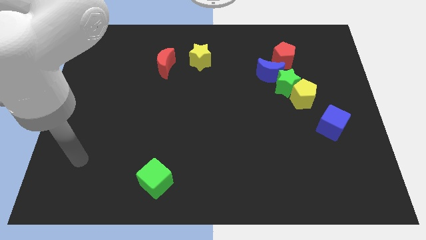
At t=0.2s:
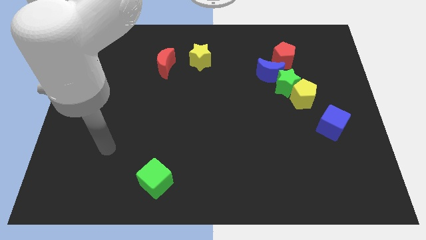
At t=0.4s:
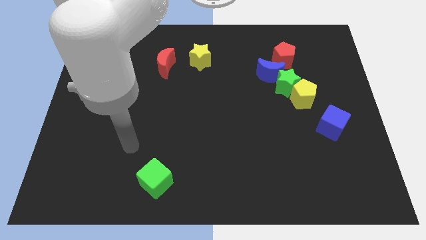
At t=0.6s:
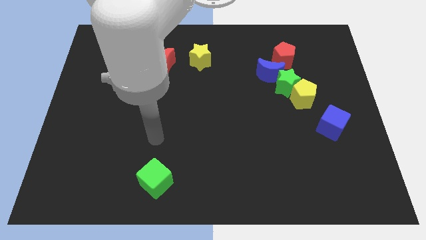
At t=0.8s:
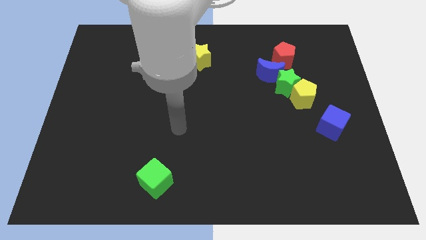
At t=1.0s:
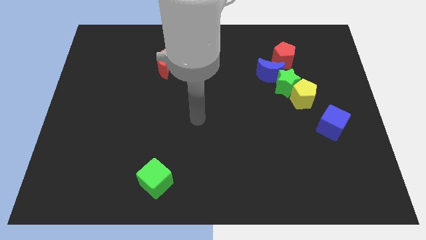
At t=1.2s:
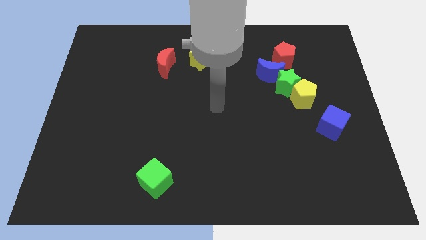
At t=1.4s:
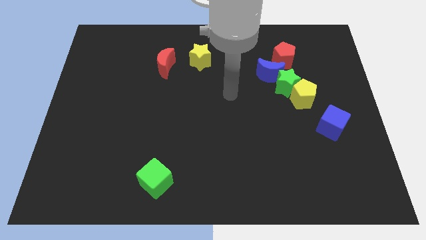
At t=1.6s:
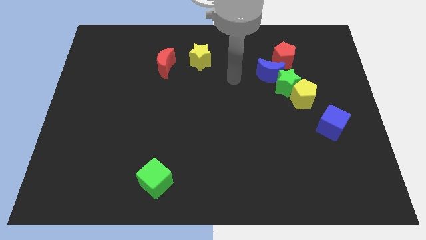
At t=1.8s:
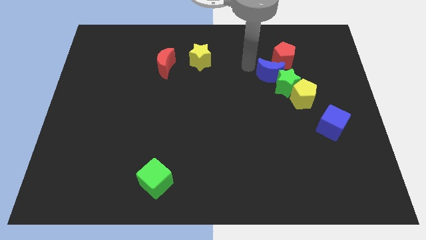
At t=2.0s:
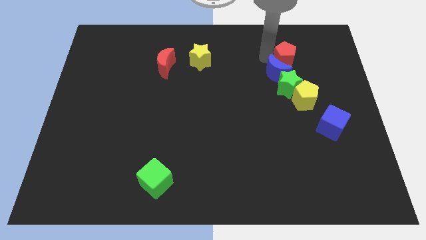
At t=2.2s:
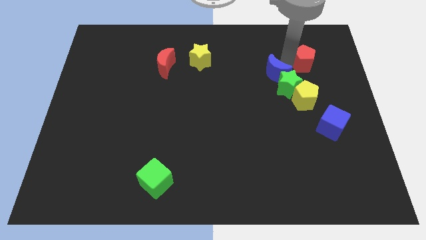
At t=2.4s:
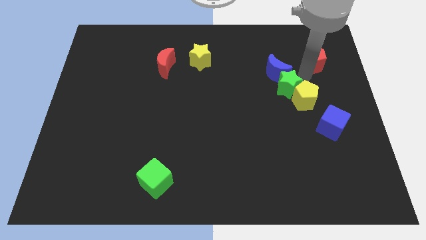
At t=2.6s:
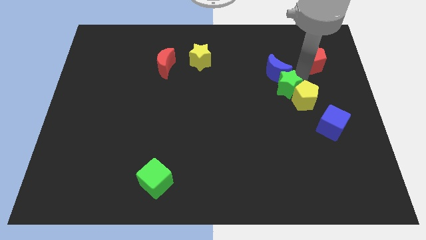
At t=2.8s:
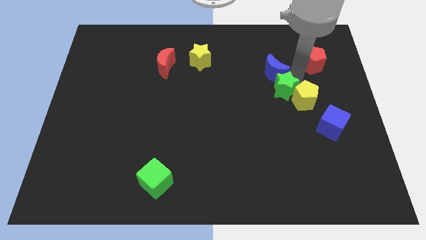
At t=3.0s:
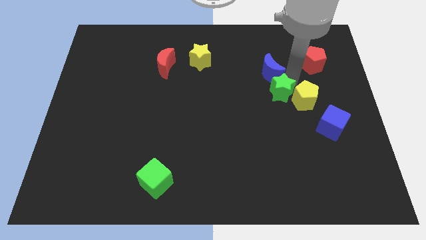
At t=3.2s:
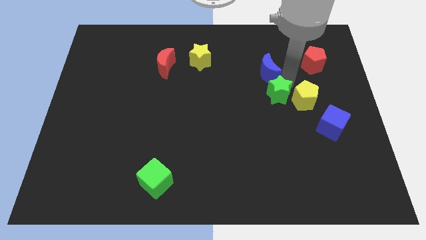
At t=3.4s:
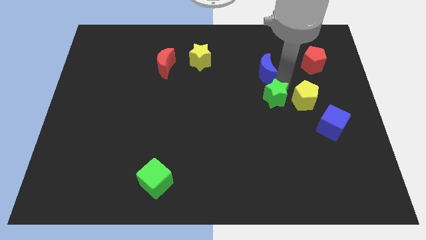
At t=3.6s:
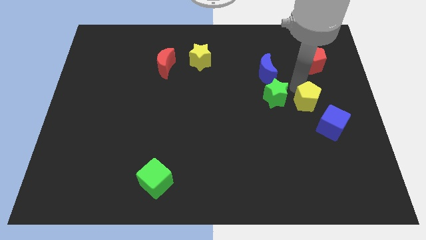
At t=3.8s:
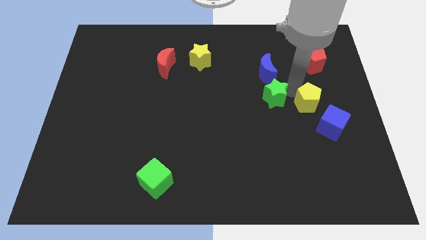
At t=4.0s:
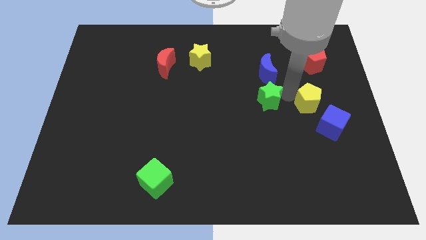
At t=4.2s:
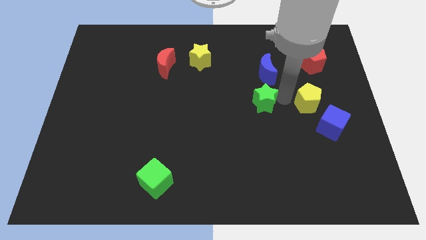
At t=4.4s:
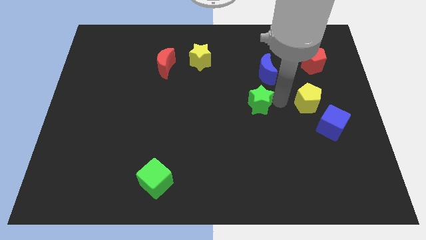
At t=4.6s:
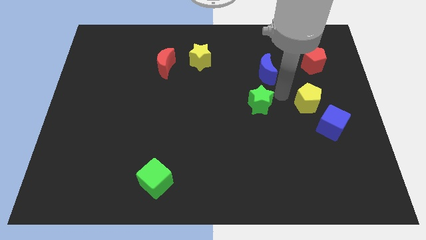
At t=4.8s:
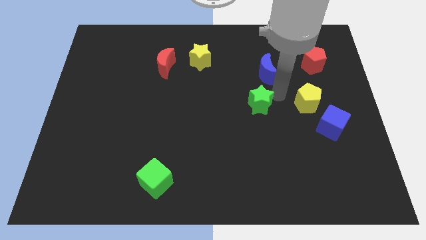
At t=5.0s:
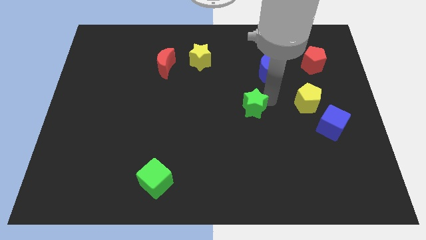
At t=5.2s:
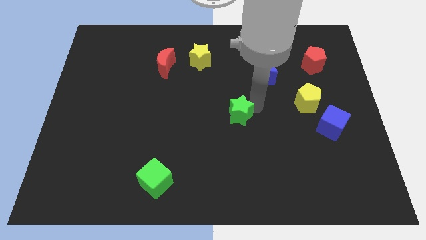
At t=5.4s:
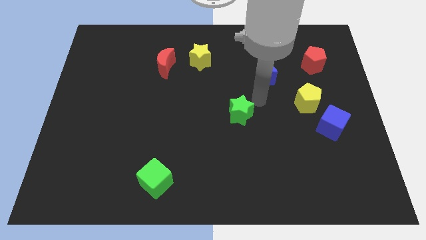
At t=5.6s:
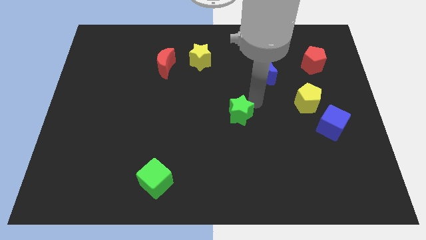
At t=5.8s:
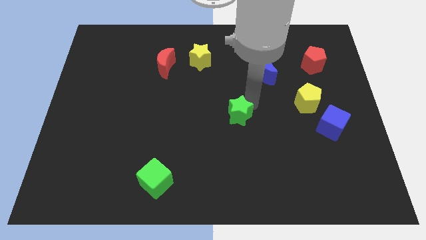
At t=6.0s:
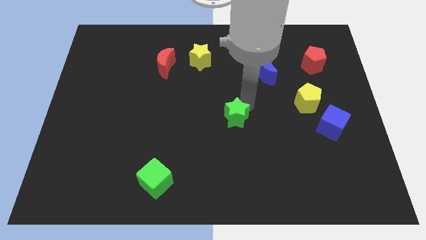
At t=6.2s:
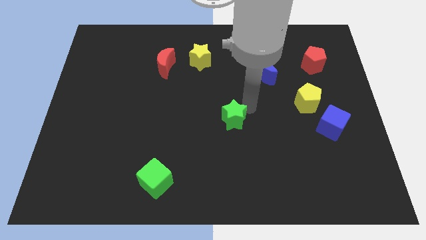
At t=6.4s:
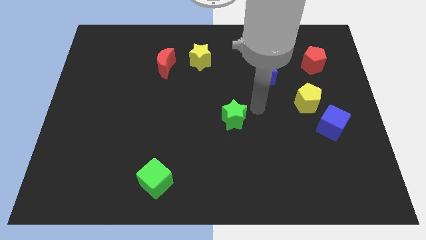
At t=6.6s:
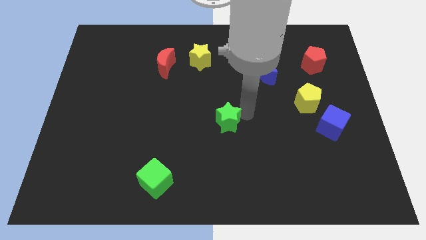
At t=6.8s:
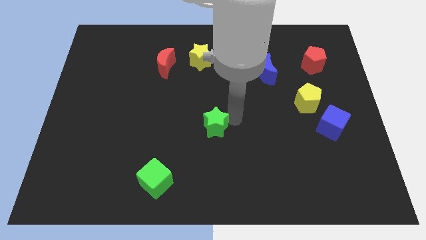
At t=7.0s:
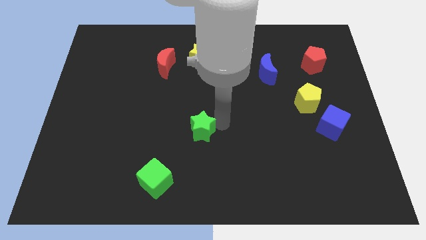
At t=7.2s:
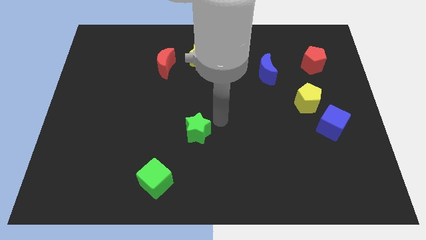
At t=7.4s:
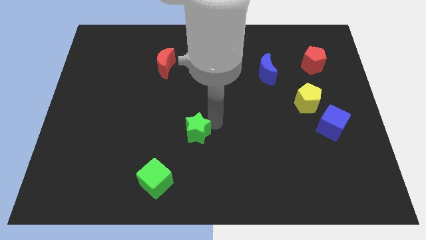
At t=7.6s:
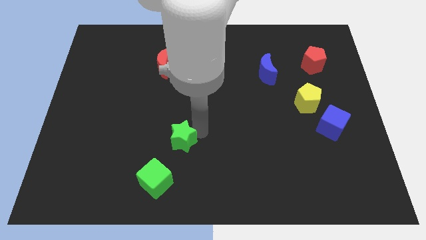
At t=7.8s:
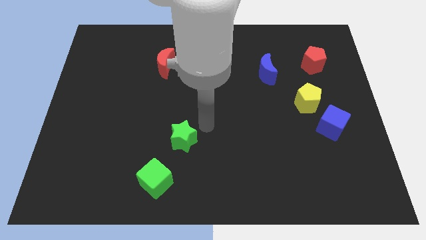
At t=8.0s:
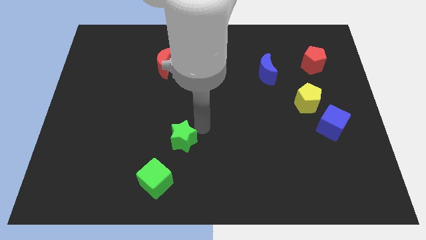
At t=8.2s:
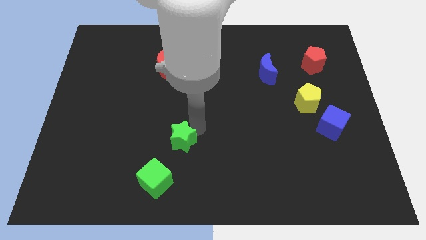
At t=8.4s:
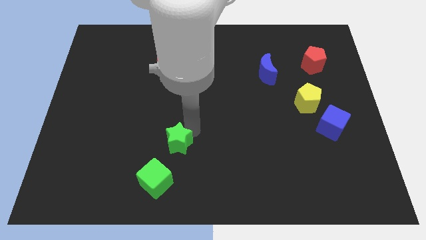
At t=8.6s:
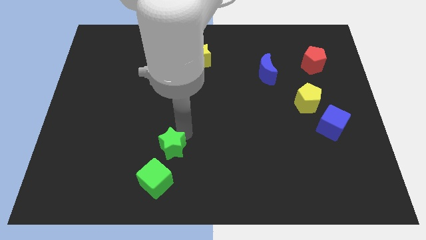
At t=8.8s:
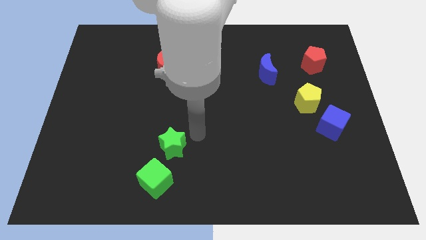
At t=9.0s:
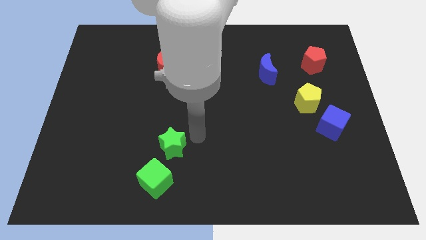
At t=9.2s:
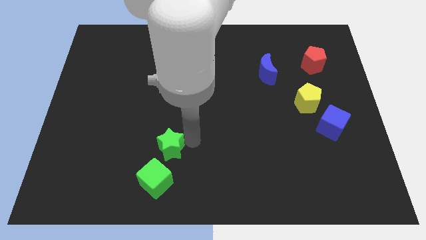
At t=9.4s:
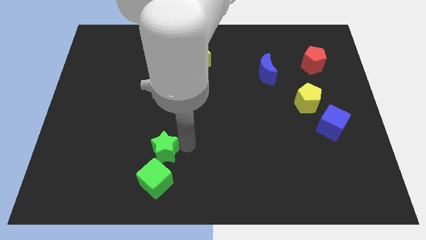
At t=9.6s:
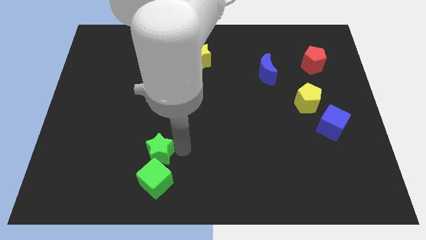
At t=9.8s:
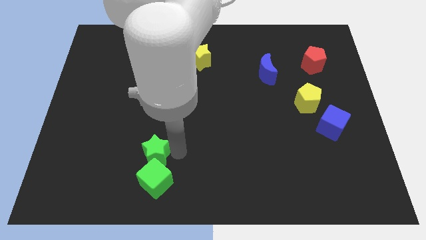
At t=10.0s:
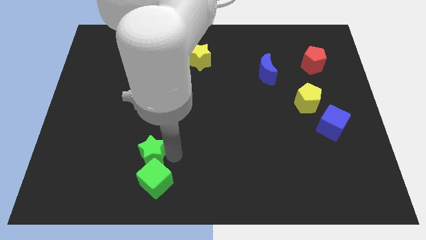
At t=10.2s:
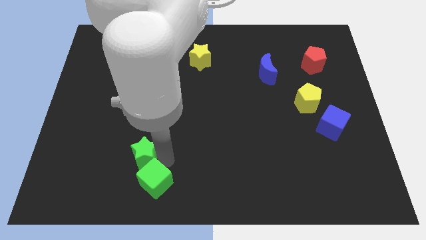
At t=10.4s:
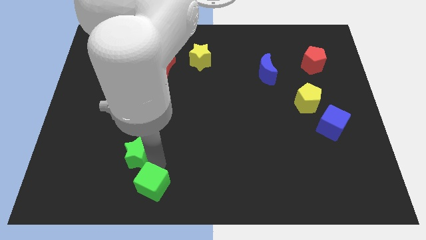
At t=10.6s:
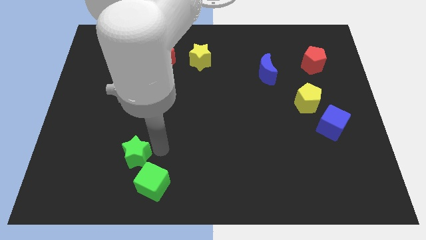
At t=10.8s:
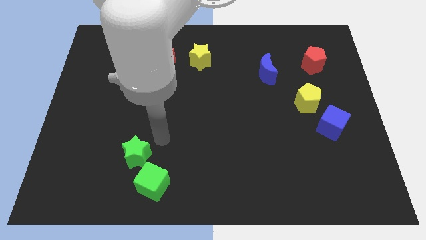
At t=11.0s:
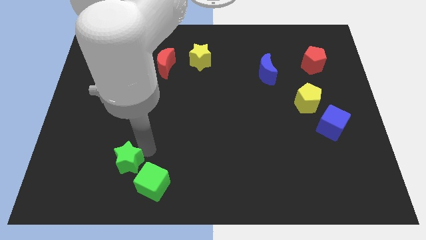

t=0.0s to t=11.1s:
push the green star just left of the green cube

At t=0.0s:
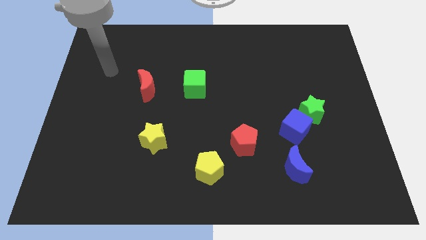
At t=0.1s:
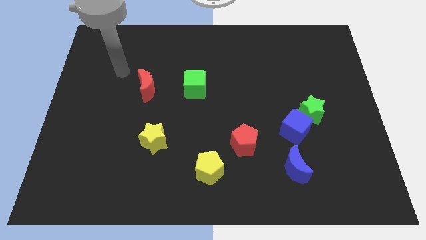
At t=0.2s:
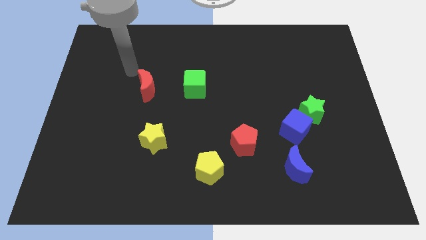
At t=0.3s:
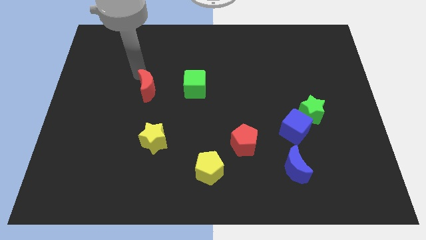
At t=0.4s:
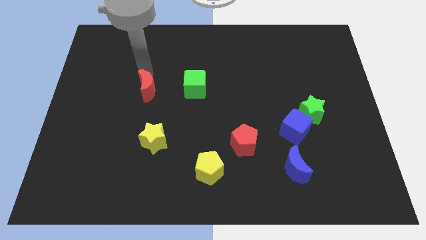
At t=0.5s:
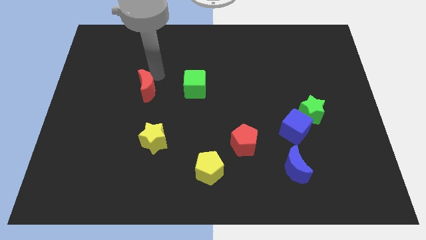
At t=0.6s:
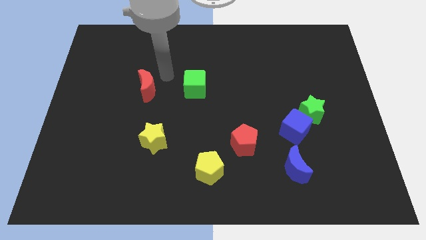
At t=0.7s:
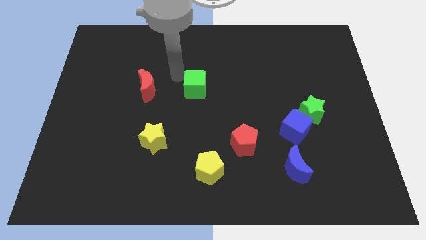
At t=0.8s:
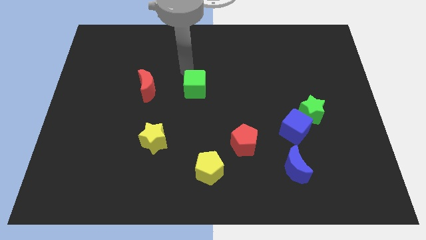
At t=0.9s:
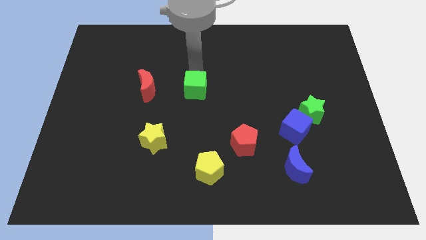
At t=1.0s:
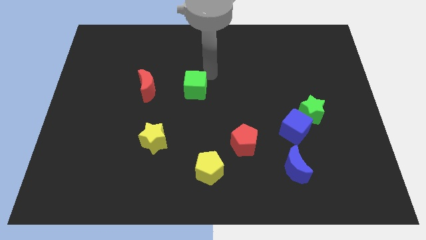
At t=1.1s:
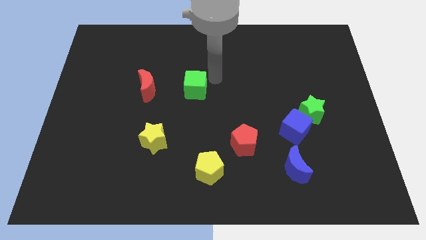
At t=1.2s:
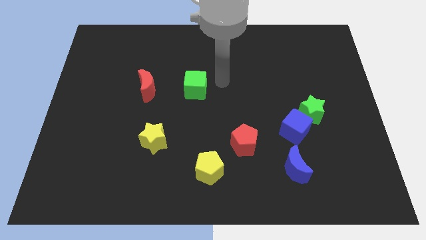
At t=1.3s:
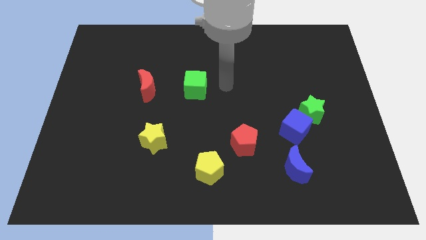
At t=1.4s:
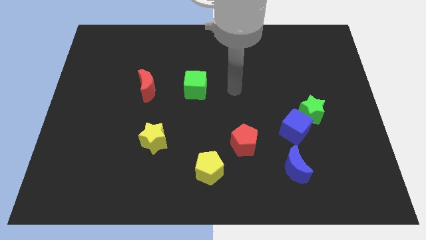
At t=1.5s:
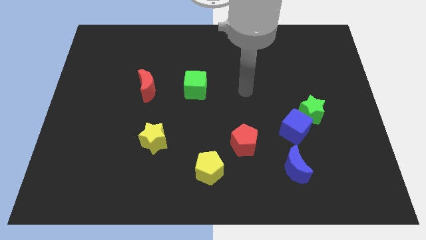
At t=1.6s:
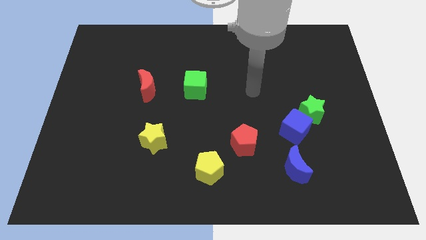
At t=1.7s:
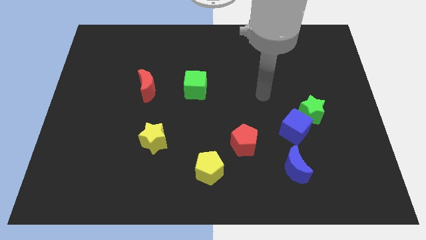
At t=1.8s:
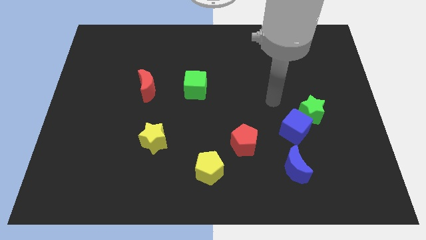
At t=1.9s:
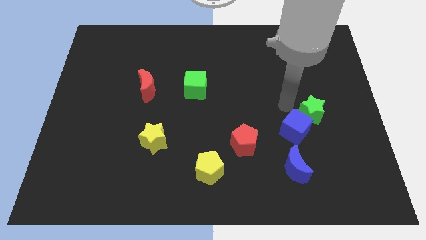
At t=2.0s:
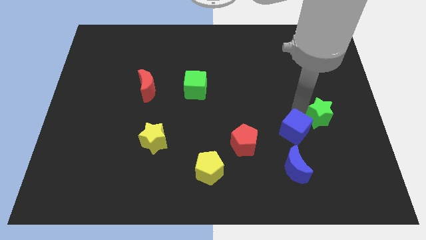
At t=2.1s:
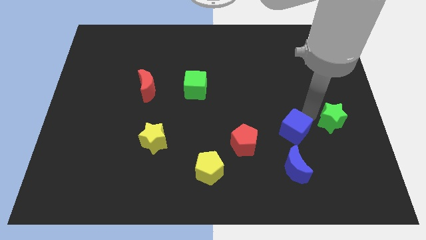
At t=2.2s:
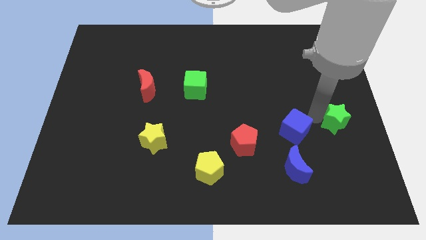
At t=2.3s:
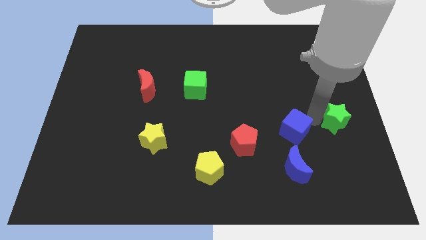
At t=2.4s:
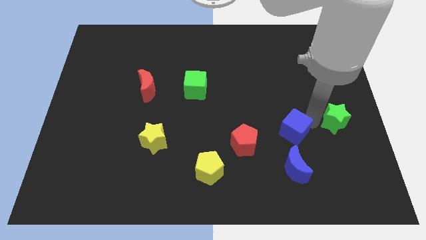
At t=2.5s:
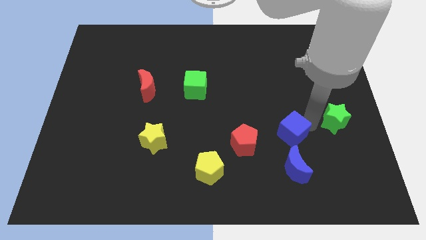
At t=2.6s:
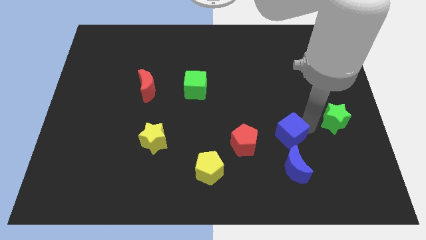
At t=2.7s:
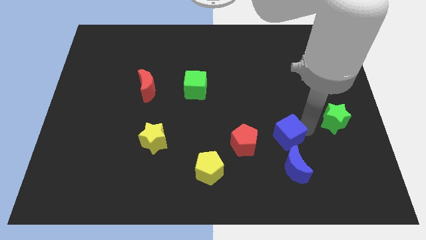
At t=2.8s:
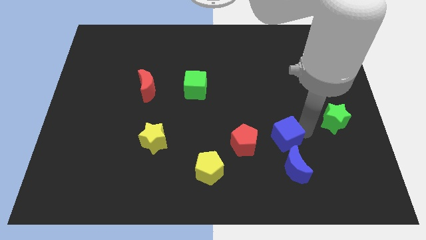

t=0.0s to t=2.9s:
push the blue cube to the top left of the blue moon
